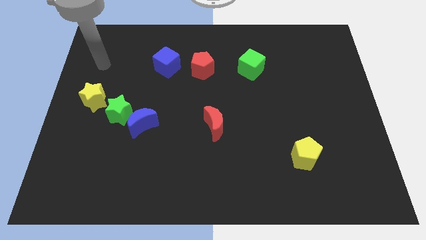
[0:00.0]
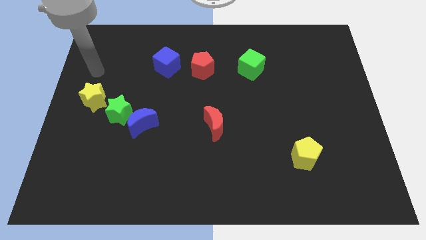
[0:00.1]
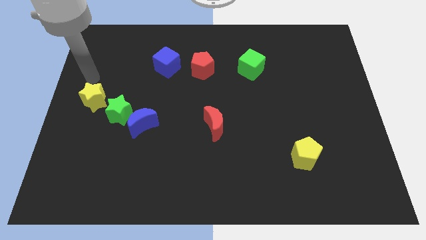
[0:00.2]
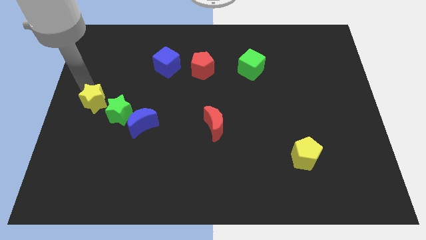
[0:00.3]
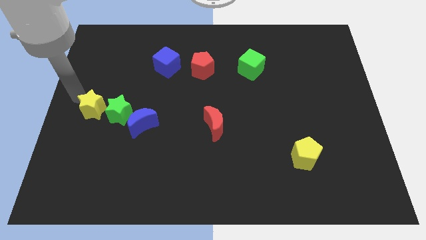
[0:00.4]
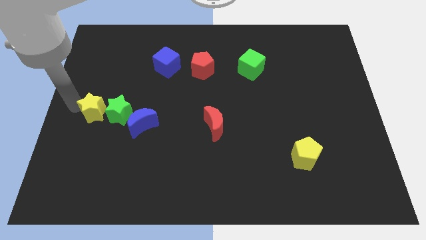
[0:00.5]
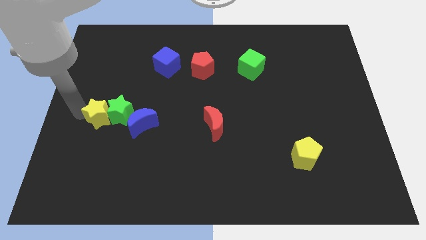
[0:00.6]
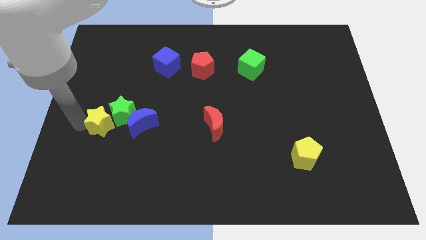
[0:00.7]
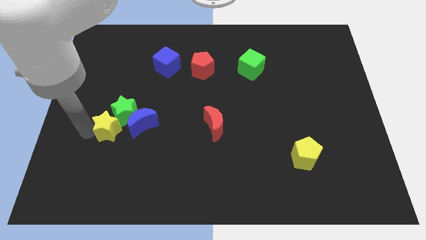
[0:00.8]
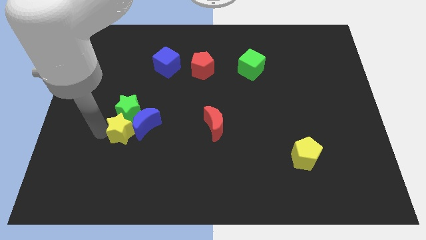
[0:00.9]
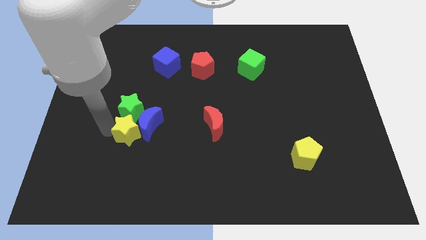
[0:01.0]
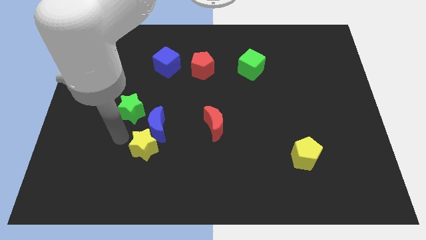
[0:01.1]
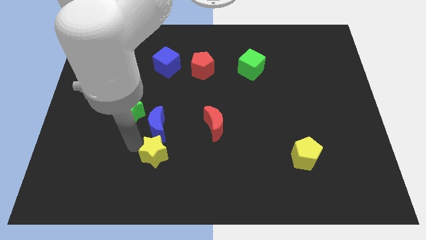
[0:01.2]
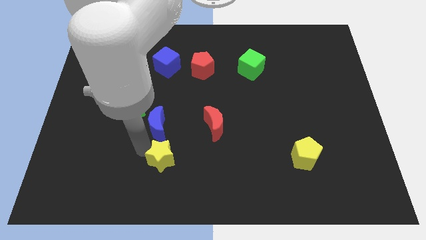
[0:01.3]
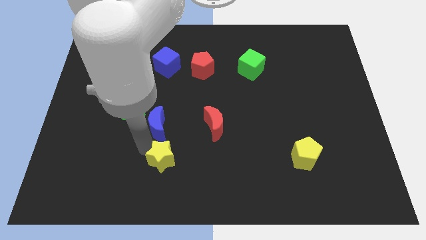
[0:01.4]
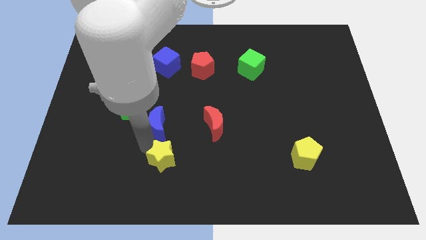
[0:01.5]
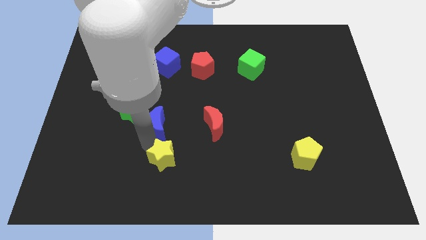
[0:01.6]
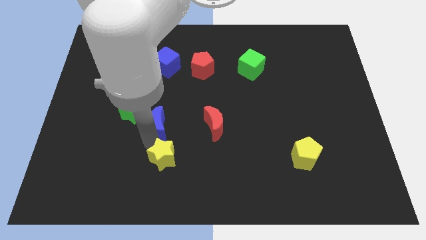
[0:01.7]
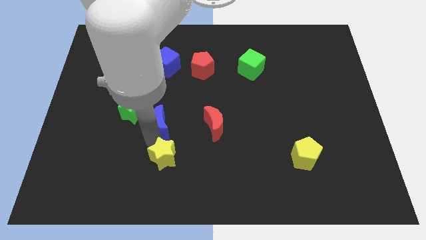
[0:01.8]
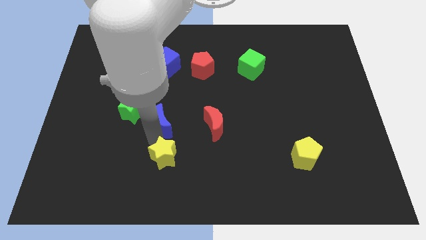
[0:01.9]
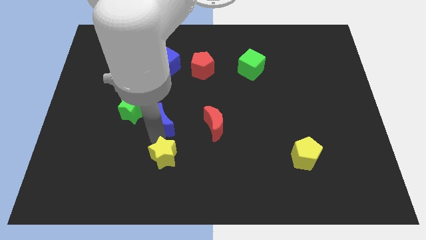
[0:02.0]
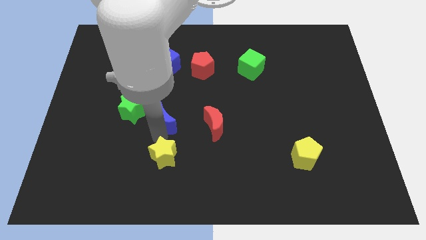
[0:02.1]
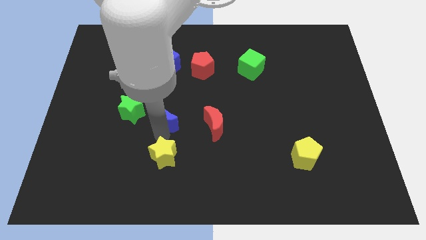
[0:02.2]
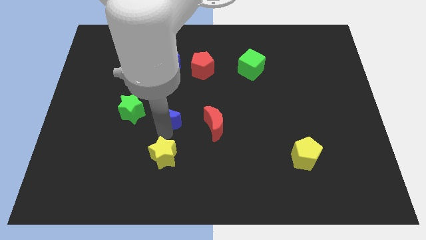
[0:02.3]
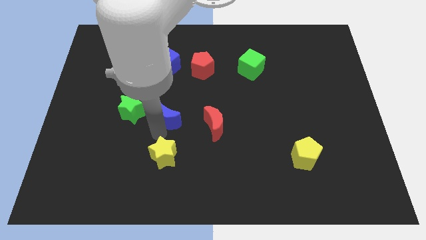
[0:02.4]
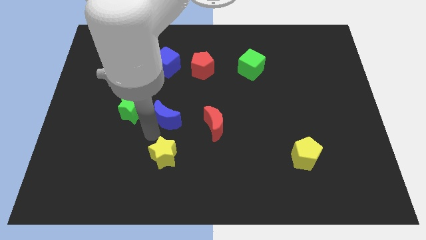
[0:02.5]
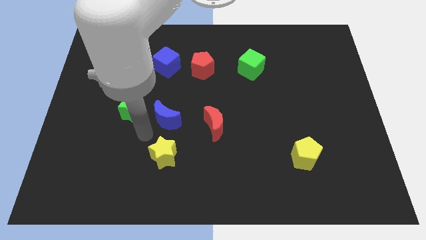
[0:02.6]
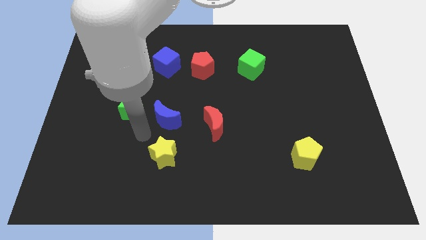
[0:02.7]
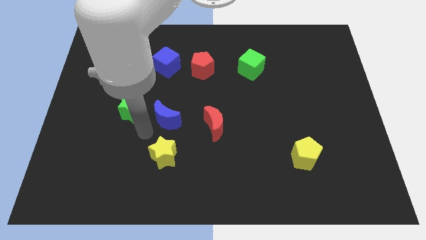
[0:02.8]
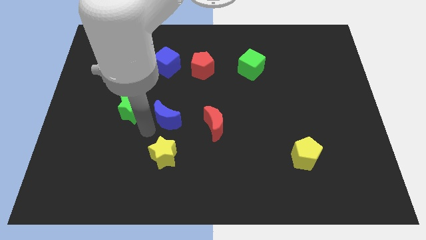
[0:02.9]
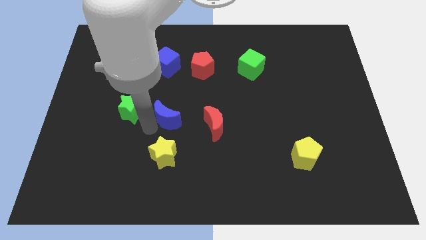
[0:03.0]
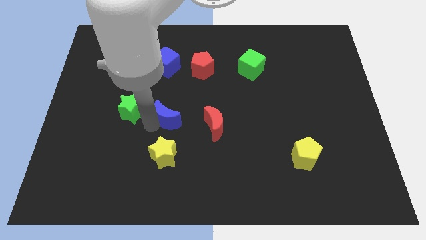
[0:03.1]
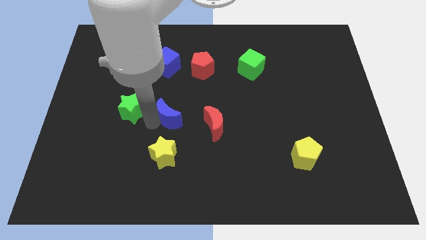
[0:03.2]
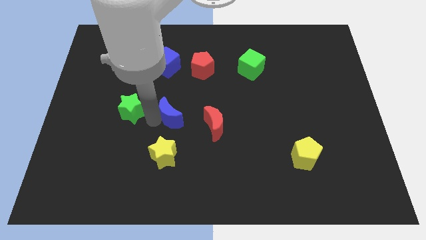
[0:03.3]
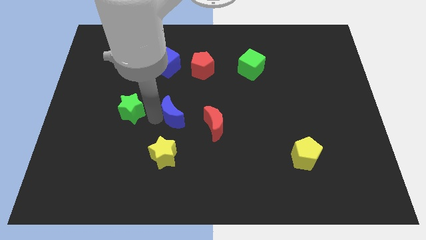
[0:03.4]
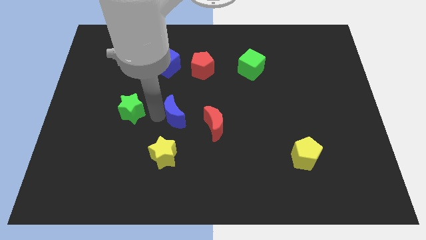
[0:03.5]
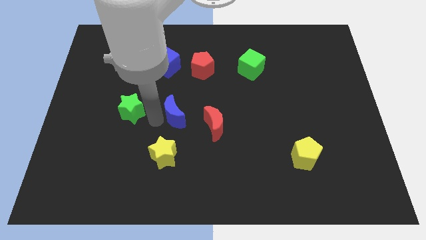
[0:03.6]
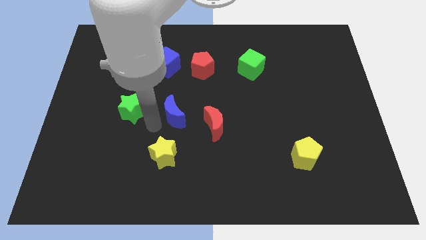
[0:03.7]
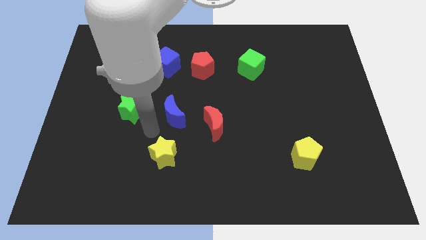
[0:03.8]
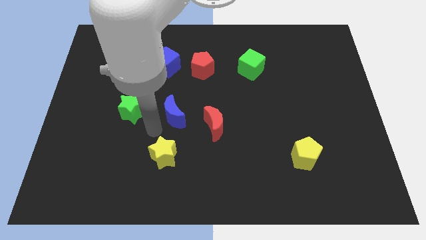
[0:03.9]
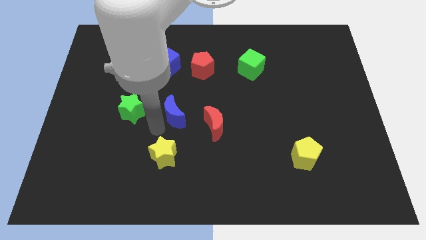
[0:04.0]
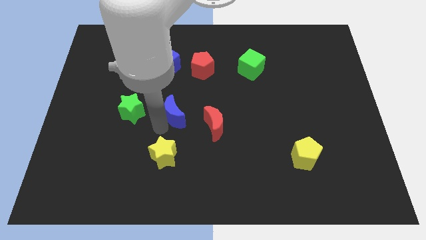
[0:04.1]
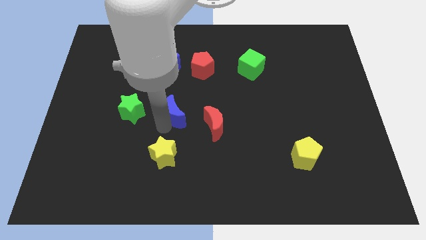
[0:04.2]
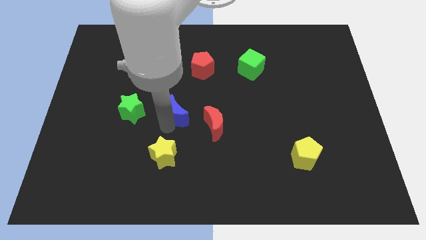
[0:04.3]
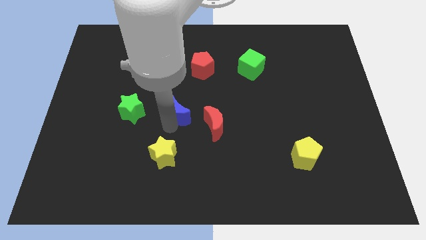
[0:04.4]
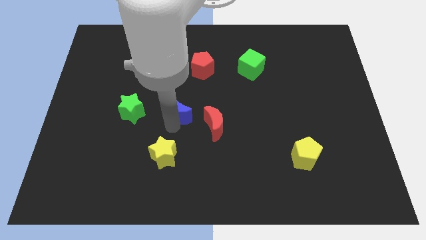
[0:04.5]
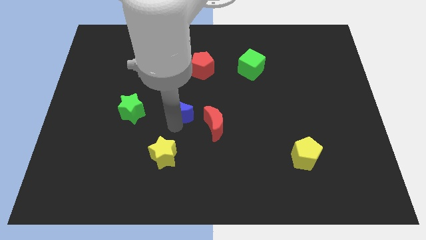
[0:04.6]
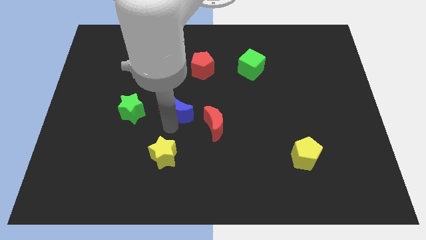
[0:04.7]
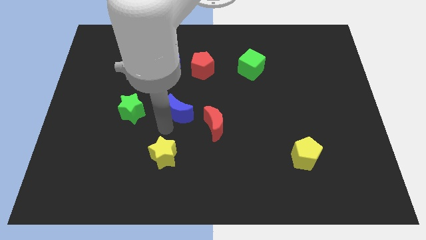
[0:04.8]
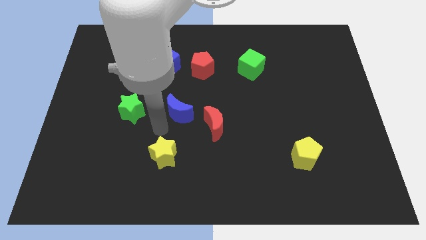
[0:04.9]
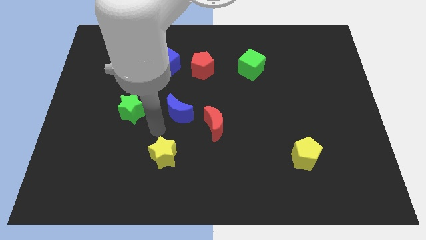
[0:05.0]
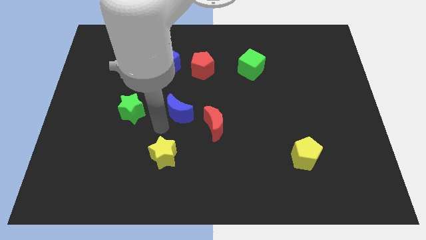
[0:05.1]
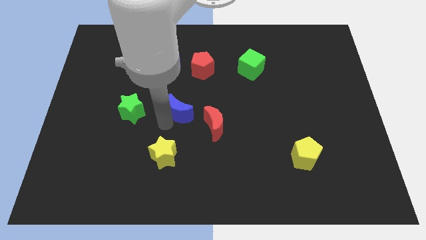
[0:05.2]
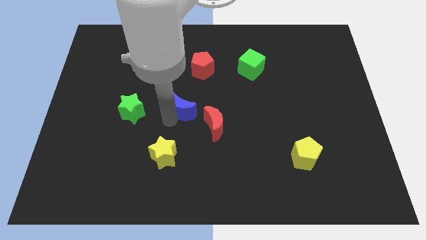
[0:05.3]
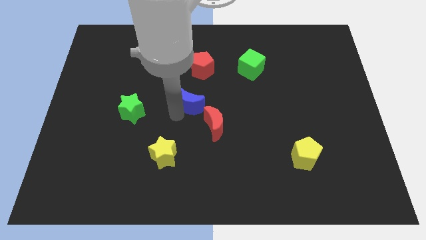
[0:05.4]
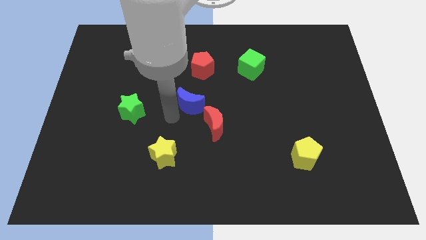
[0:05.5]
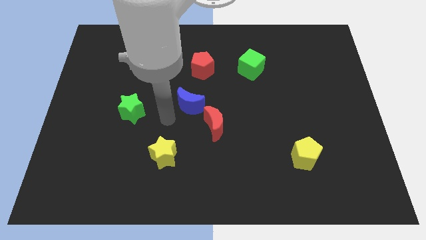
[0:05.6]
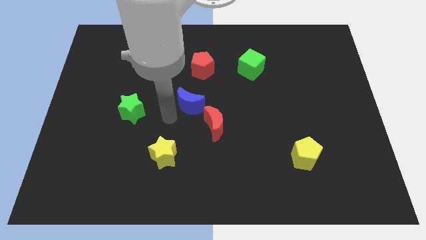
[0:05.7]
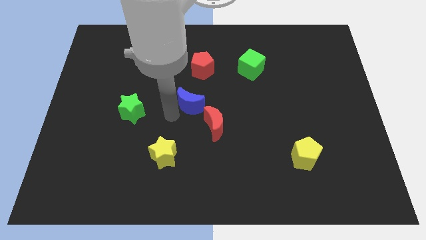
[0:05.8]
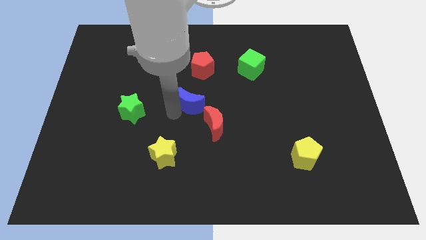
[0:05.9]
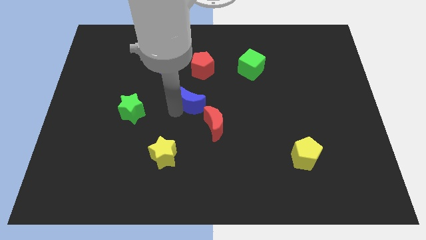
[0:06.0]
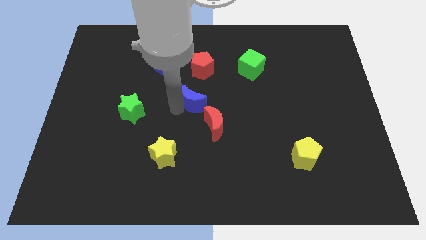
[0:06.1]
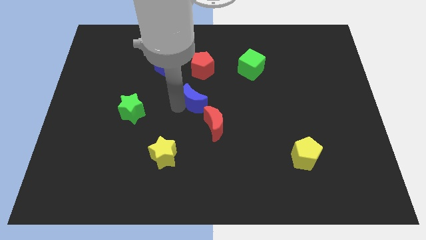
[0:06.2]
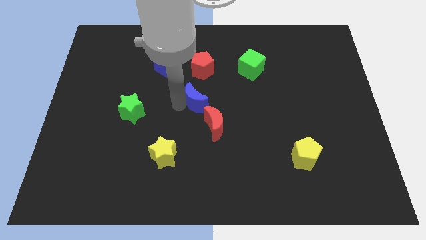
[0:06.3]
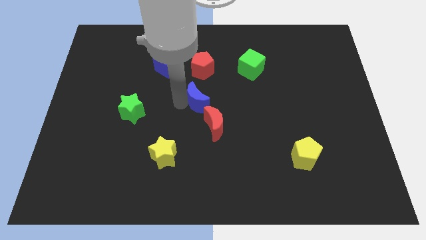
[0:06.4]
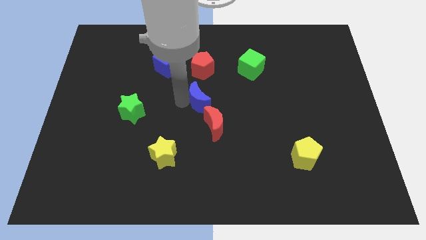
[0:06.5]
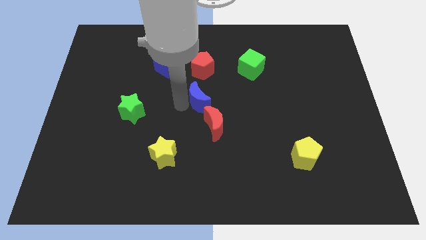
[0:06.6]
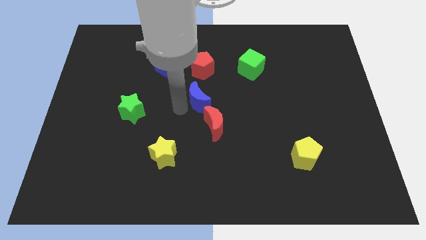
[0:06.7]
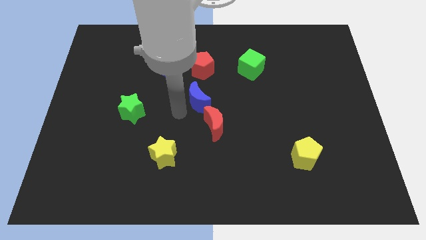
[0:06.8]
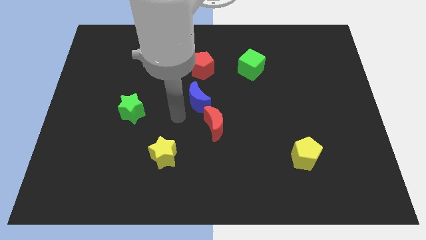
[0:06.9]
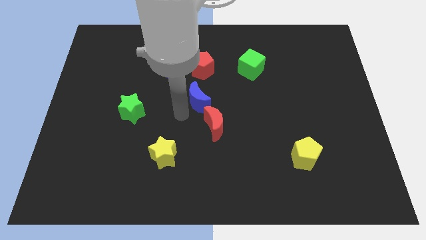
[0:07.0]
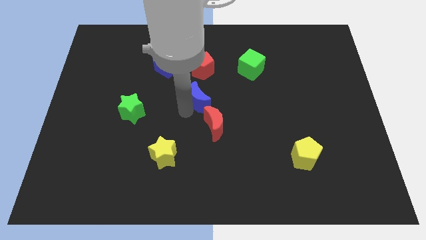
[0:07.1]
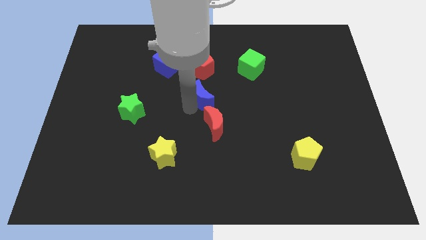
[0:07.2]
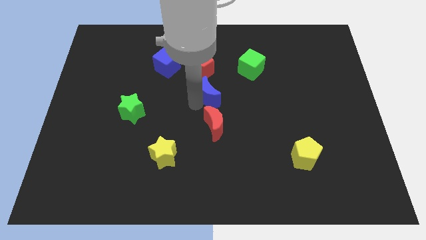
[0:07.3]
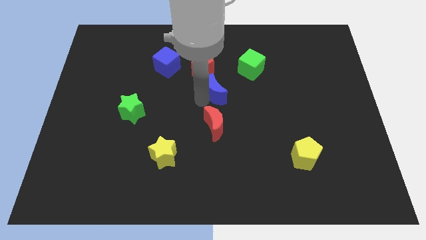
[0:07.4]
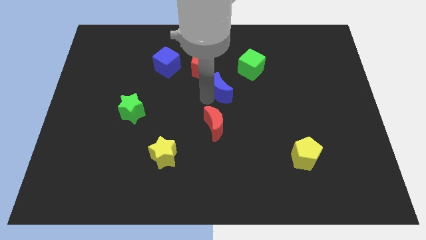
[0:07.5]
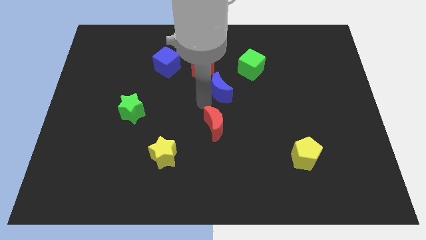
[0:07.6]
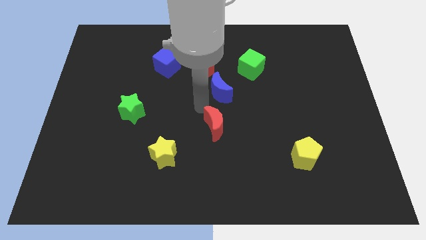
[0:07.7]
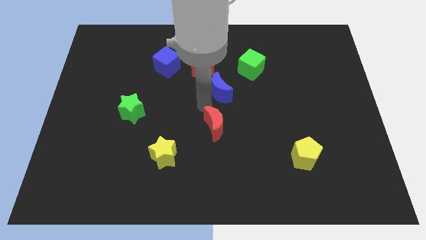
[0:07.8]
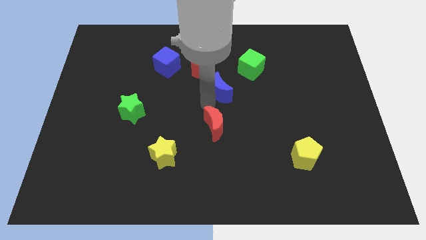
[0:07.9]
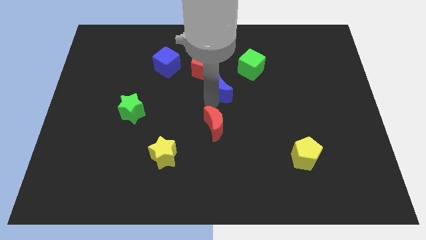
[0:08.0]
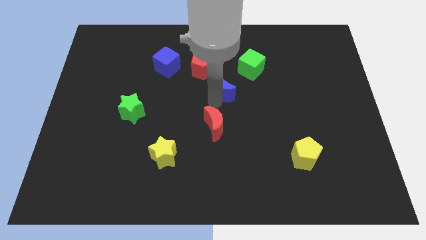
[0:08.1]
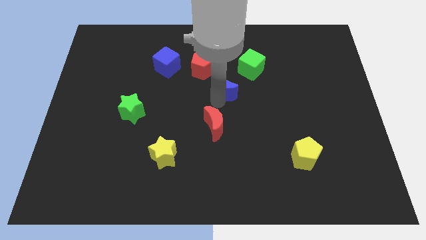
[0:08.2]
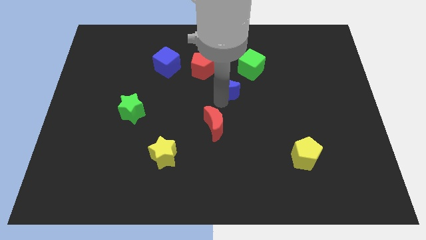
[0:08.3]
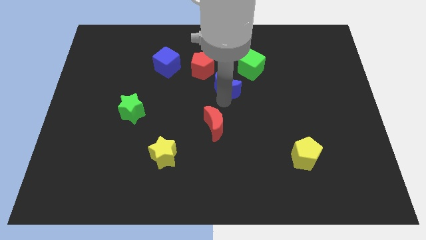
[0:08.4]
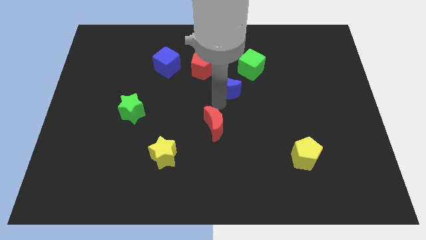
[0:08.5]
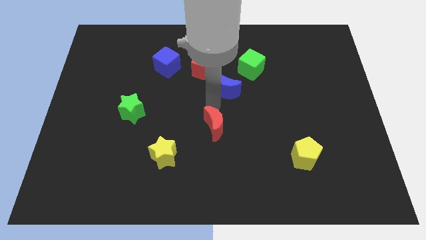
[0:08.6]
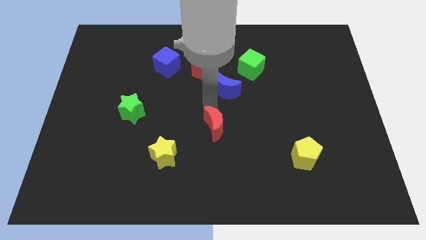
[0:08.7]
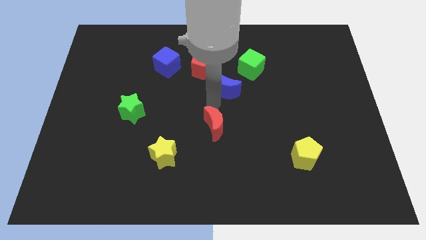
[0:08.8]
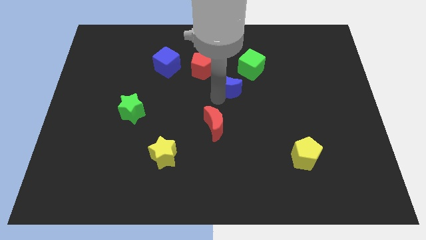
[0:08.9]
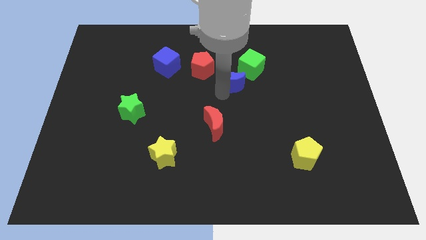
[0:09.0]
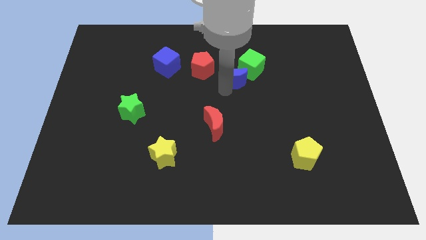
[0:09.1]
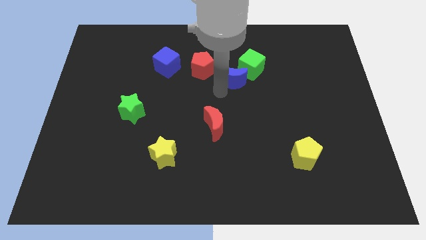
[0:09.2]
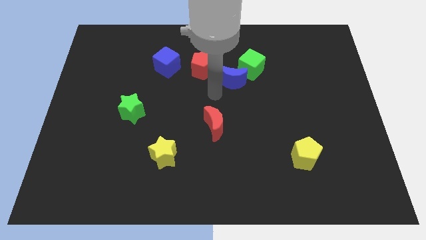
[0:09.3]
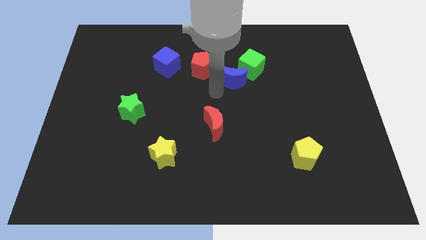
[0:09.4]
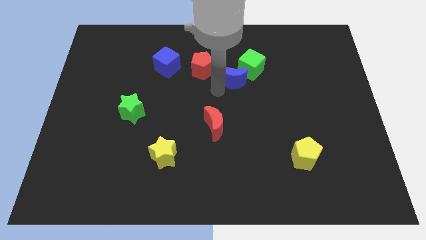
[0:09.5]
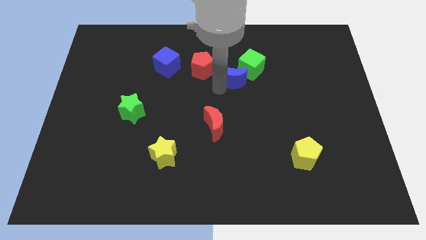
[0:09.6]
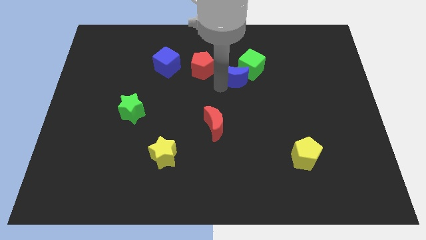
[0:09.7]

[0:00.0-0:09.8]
put the blue moon to the green cube
